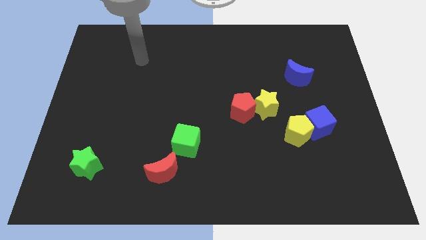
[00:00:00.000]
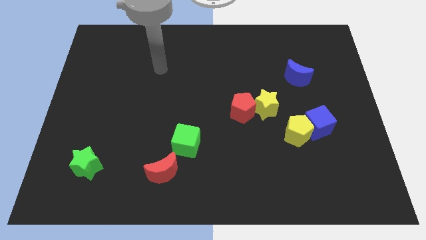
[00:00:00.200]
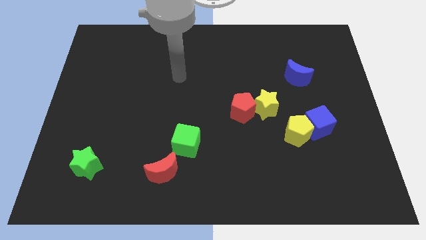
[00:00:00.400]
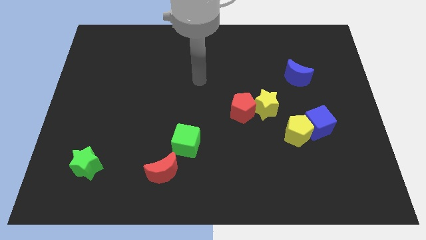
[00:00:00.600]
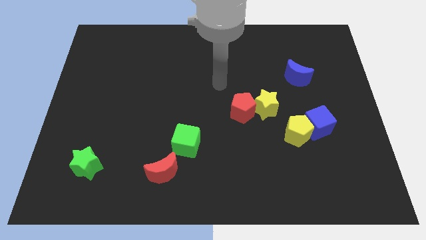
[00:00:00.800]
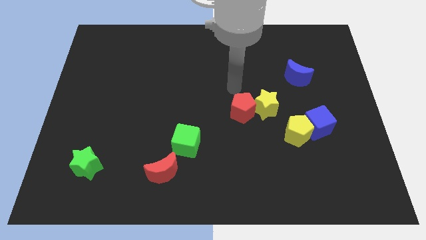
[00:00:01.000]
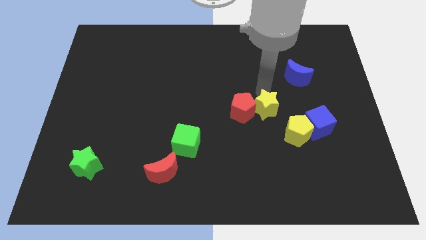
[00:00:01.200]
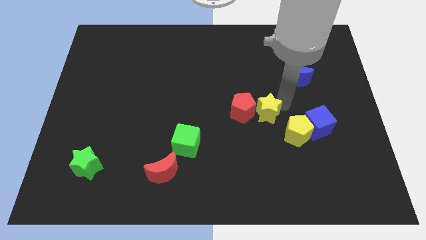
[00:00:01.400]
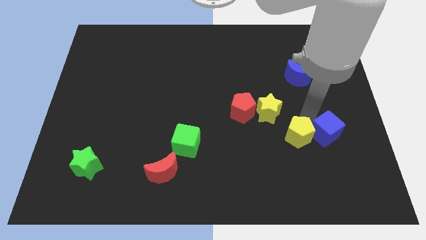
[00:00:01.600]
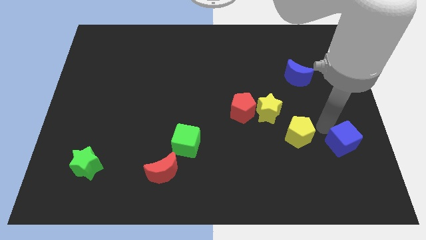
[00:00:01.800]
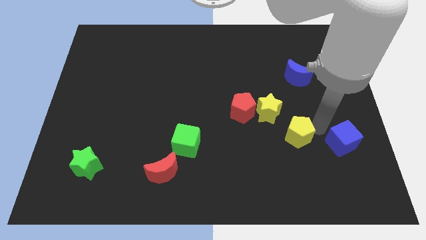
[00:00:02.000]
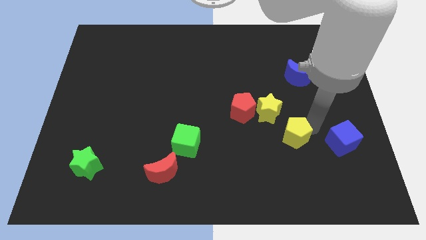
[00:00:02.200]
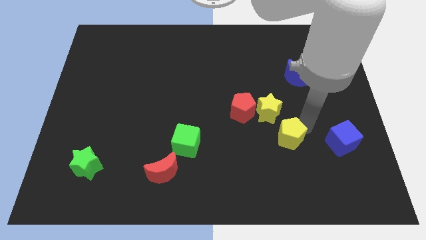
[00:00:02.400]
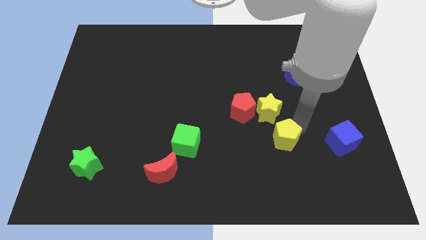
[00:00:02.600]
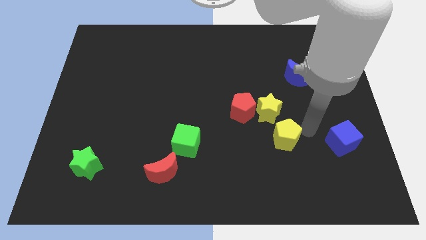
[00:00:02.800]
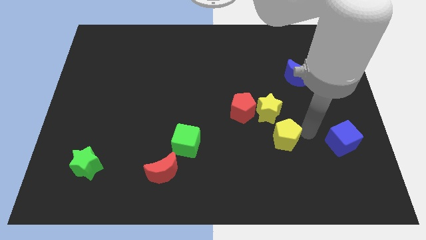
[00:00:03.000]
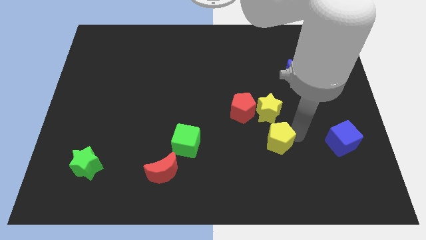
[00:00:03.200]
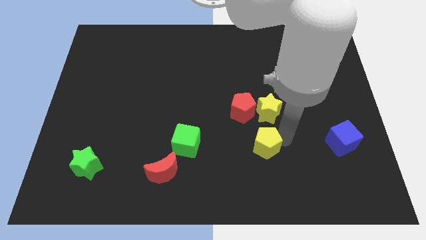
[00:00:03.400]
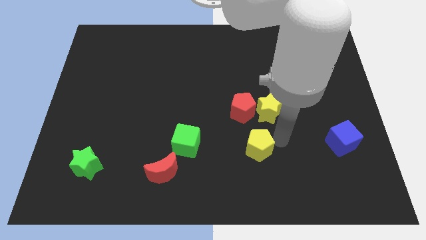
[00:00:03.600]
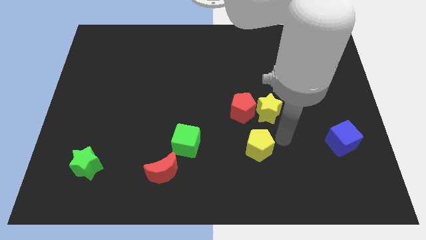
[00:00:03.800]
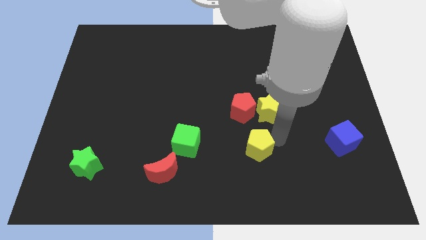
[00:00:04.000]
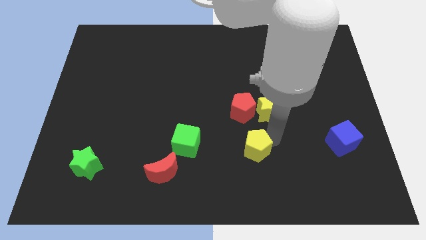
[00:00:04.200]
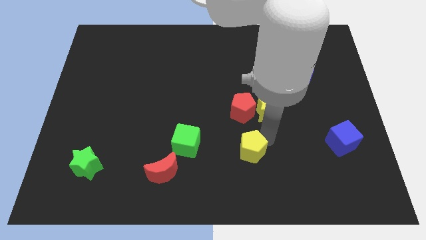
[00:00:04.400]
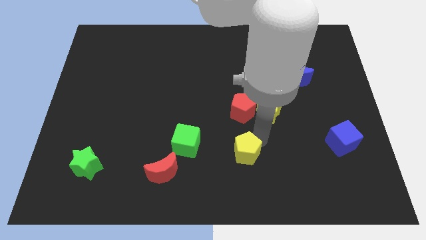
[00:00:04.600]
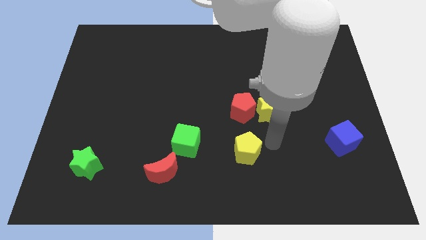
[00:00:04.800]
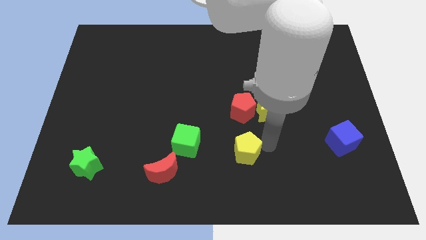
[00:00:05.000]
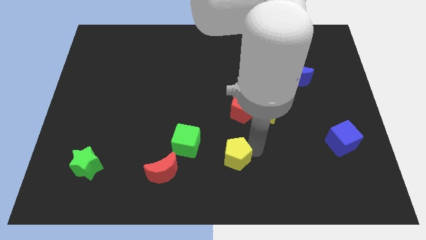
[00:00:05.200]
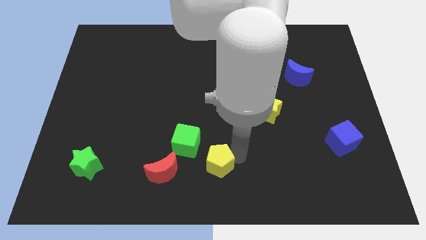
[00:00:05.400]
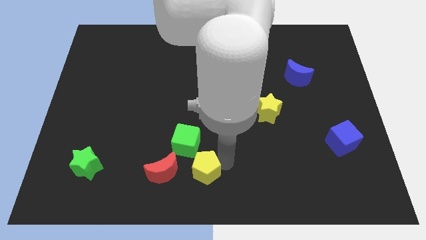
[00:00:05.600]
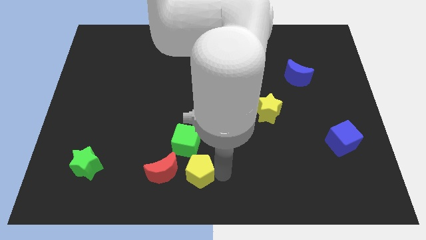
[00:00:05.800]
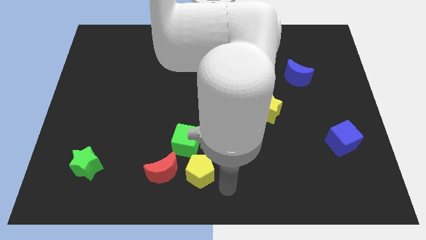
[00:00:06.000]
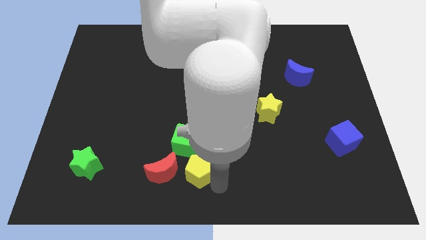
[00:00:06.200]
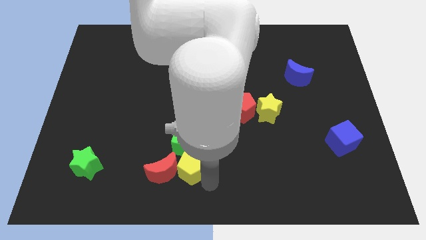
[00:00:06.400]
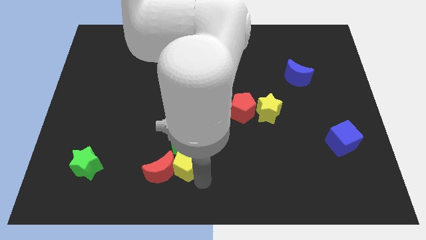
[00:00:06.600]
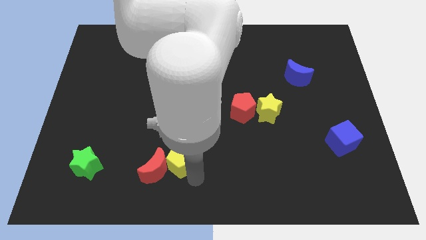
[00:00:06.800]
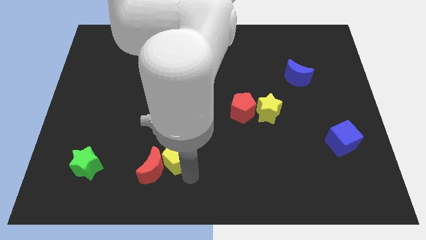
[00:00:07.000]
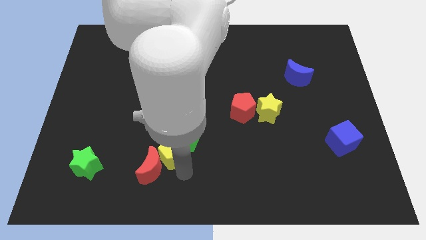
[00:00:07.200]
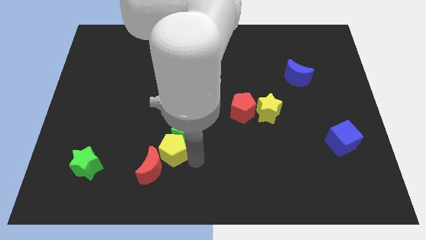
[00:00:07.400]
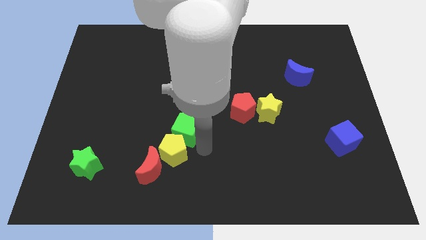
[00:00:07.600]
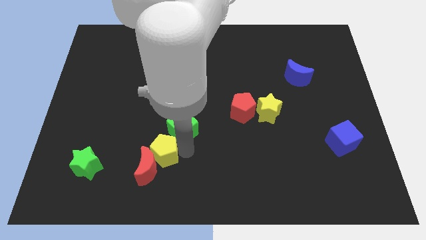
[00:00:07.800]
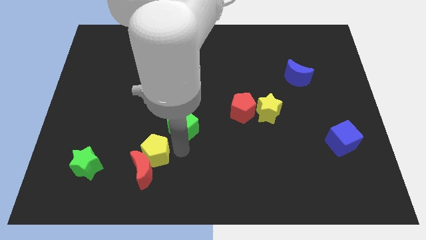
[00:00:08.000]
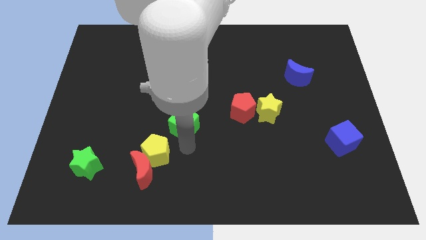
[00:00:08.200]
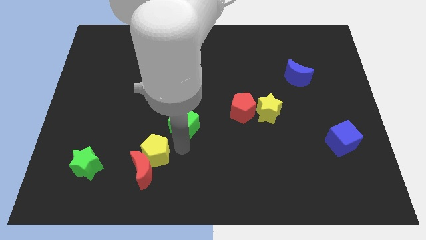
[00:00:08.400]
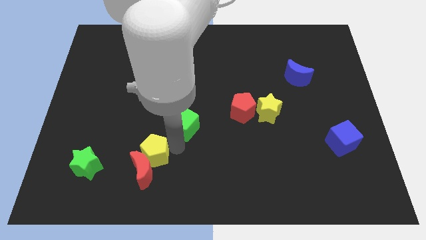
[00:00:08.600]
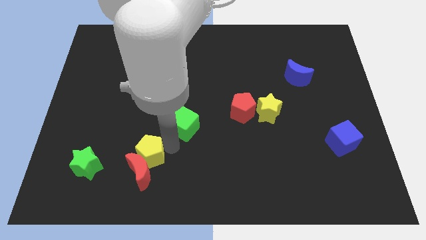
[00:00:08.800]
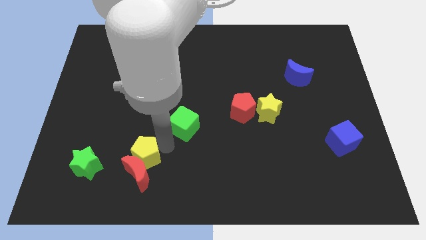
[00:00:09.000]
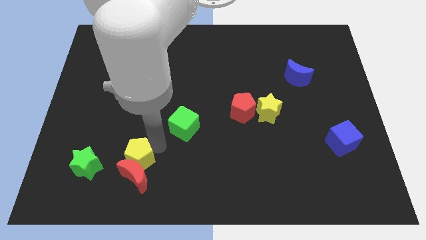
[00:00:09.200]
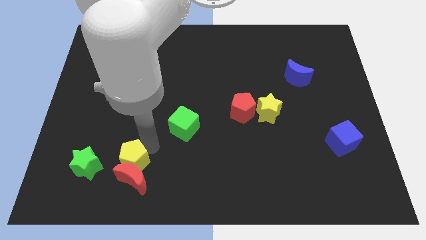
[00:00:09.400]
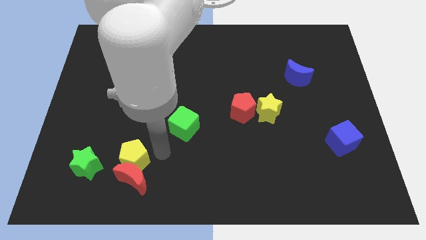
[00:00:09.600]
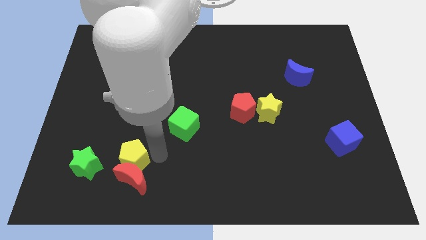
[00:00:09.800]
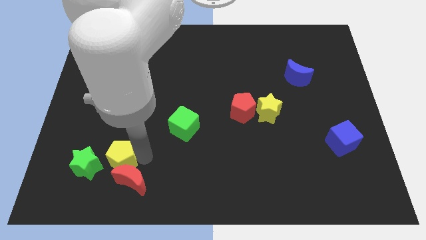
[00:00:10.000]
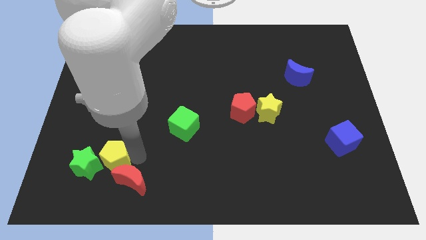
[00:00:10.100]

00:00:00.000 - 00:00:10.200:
push the yellow pentagon close to the green star

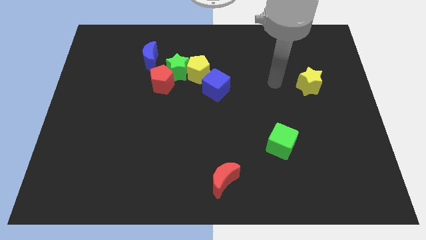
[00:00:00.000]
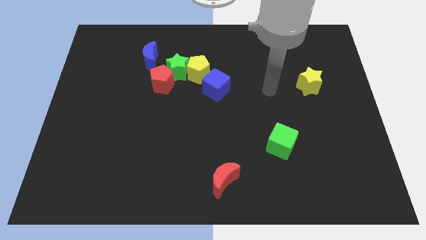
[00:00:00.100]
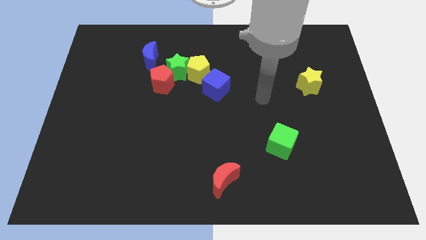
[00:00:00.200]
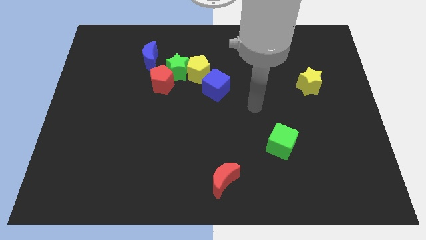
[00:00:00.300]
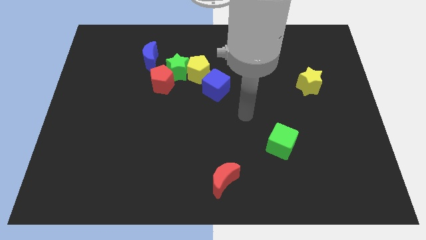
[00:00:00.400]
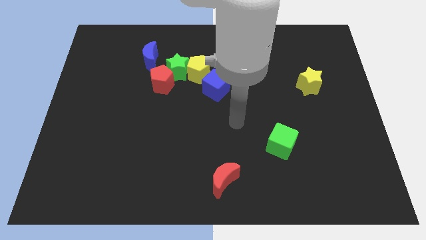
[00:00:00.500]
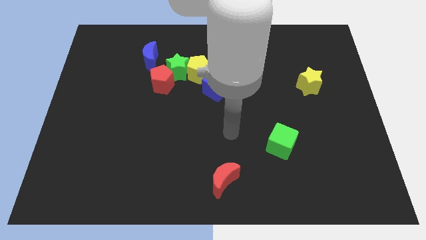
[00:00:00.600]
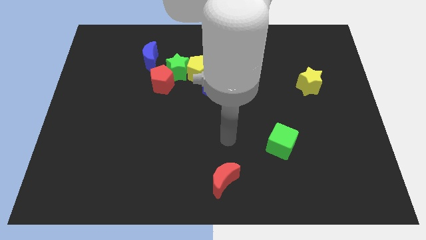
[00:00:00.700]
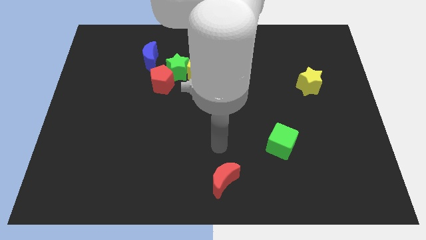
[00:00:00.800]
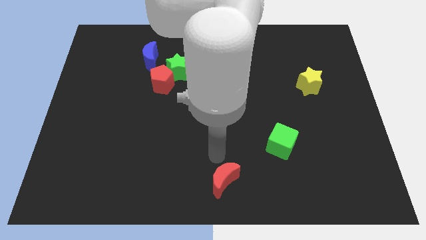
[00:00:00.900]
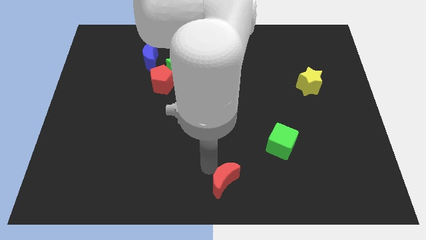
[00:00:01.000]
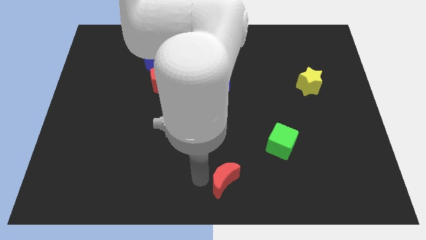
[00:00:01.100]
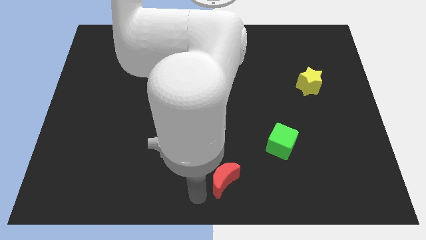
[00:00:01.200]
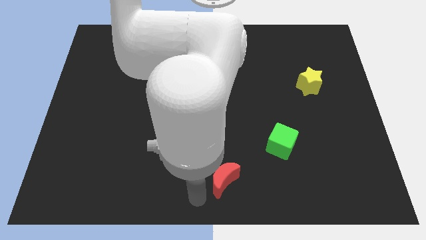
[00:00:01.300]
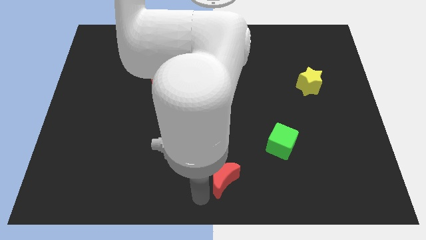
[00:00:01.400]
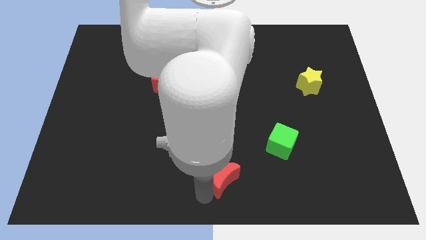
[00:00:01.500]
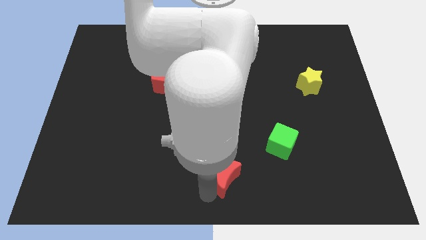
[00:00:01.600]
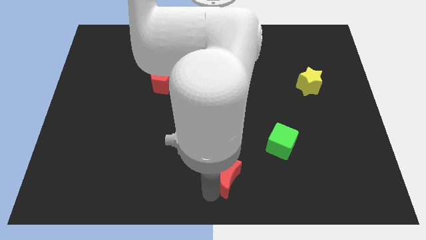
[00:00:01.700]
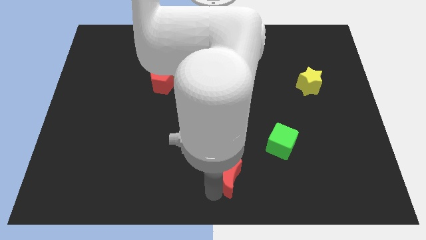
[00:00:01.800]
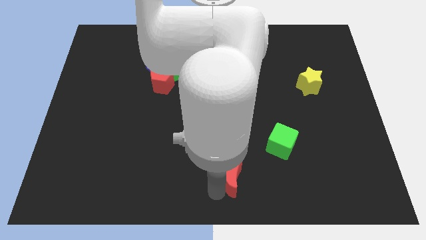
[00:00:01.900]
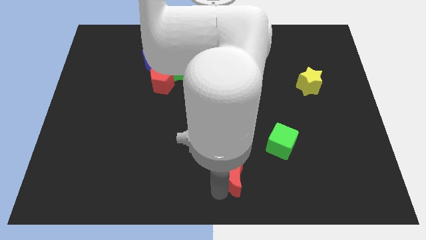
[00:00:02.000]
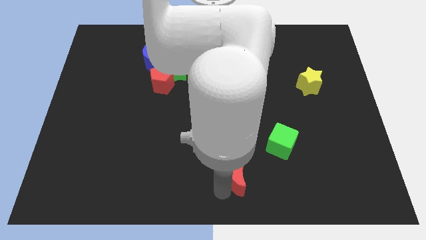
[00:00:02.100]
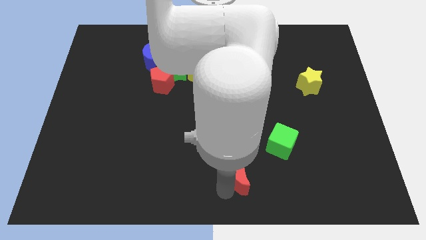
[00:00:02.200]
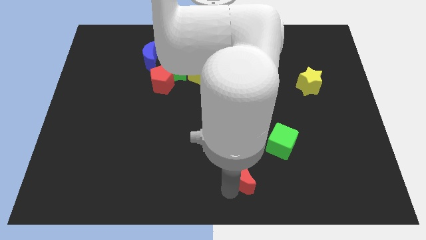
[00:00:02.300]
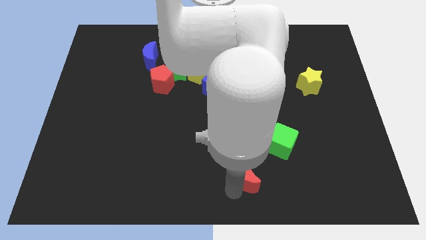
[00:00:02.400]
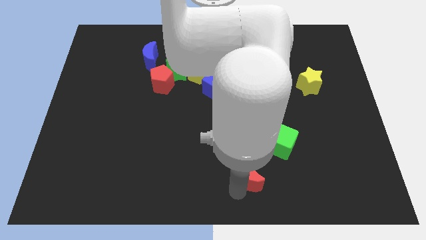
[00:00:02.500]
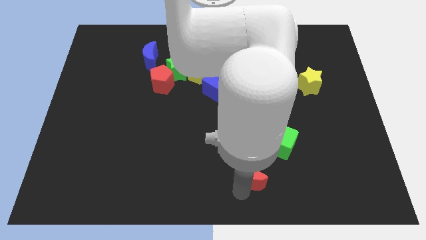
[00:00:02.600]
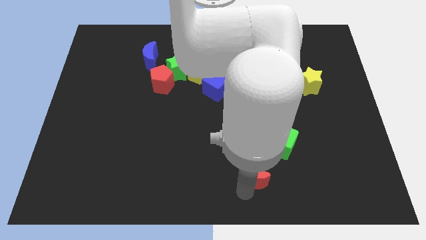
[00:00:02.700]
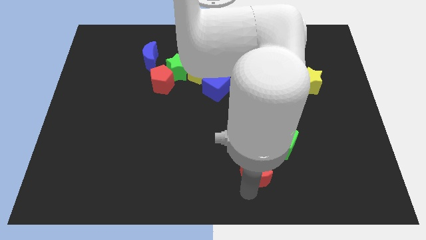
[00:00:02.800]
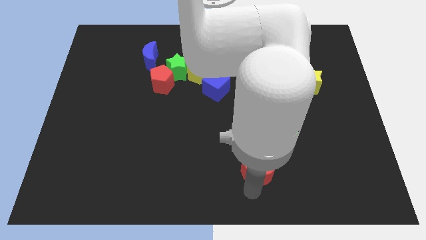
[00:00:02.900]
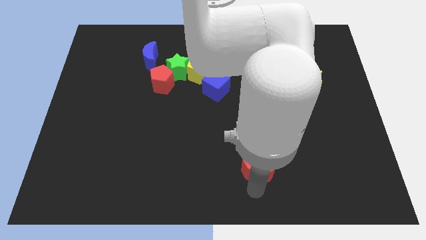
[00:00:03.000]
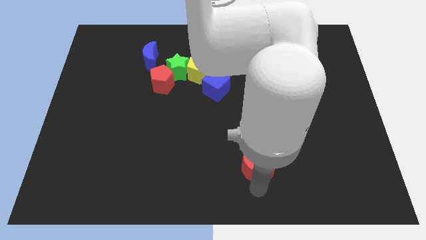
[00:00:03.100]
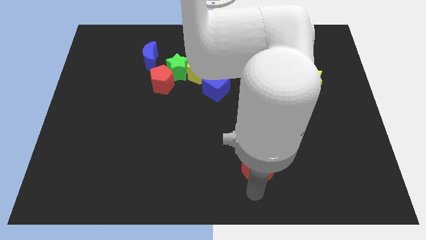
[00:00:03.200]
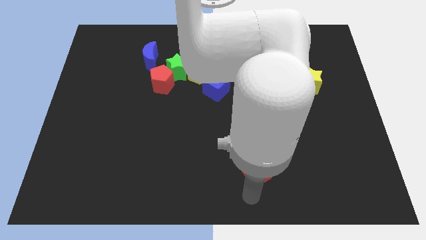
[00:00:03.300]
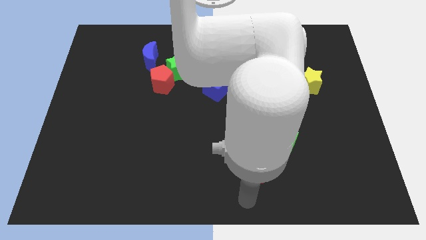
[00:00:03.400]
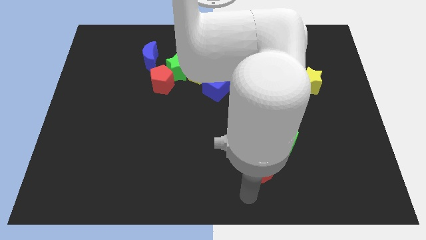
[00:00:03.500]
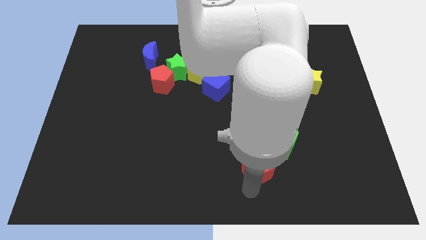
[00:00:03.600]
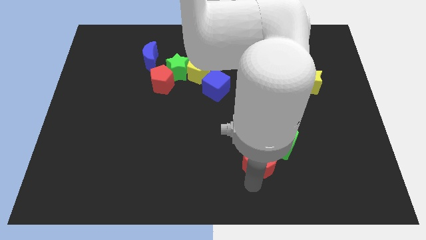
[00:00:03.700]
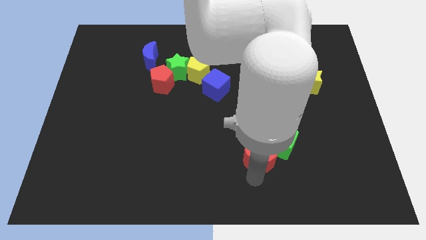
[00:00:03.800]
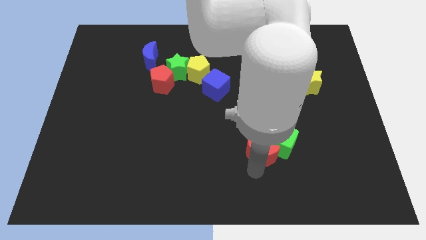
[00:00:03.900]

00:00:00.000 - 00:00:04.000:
push the red moon close to the green cube
